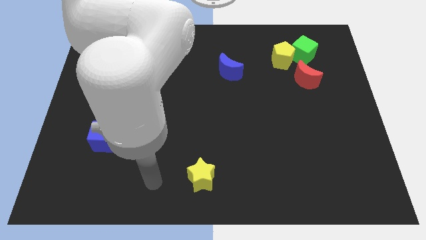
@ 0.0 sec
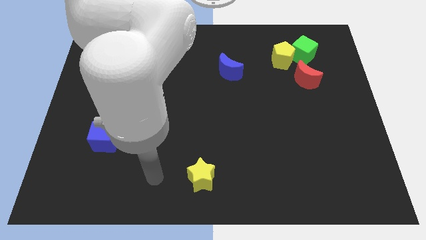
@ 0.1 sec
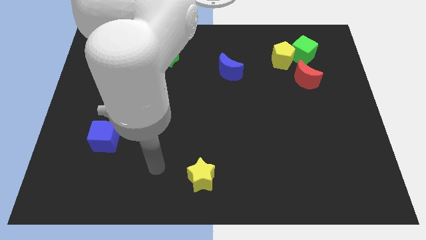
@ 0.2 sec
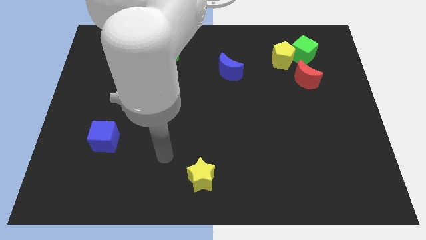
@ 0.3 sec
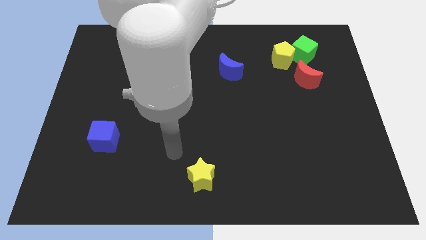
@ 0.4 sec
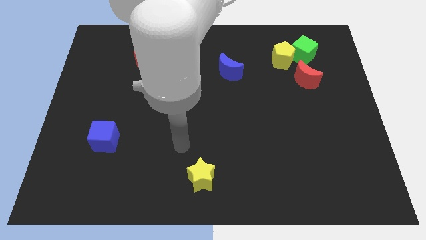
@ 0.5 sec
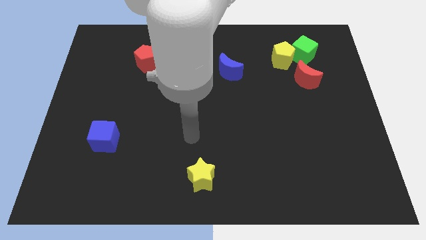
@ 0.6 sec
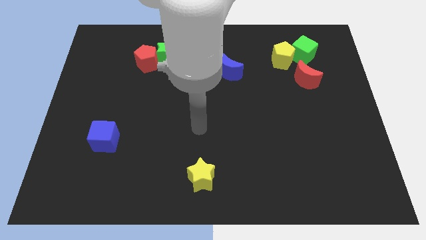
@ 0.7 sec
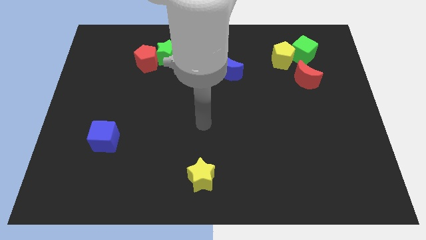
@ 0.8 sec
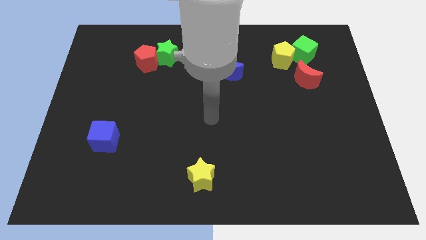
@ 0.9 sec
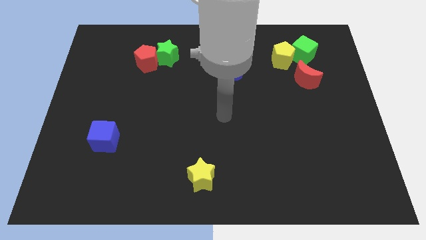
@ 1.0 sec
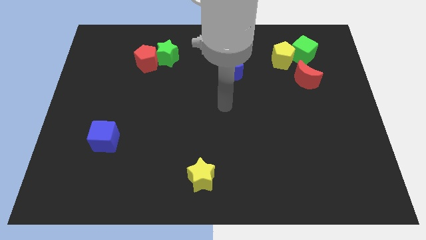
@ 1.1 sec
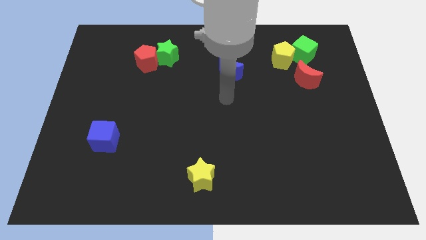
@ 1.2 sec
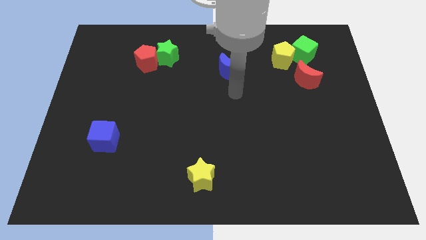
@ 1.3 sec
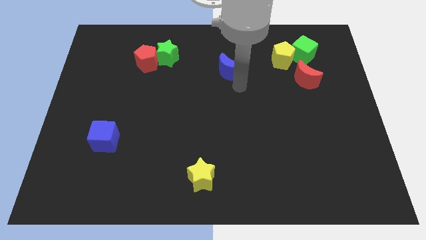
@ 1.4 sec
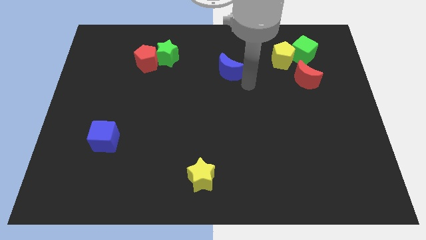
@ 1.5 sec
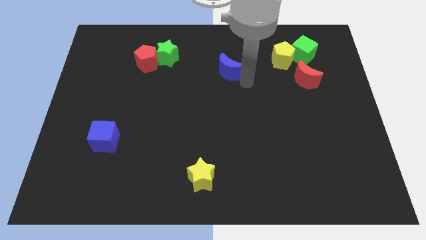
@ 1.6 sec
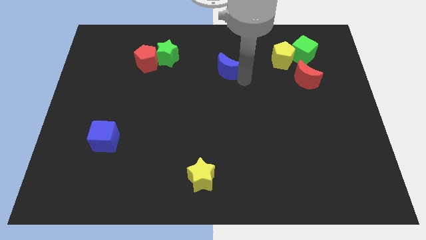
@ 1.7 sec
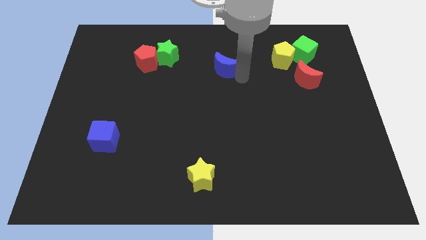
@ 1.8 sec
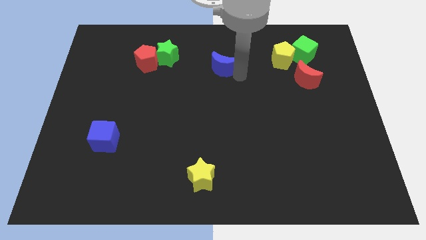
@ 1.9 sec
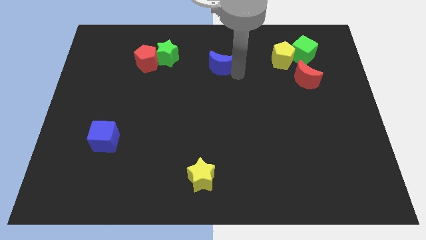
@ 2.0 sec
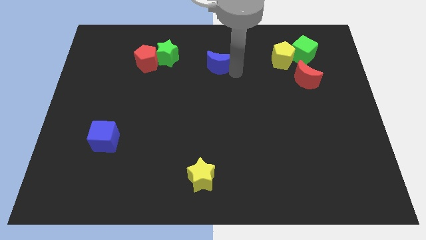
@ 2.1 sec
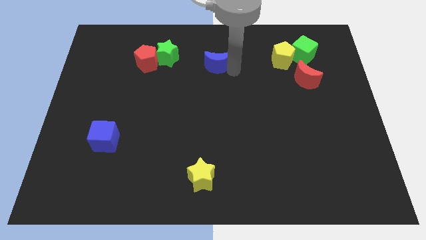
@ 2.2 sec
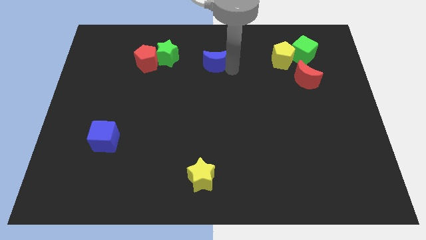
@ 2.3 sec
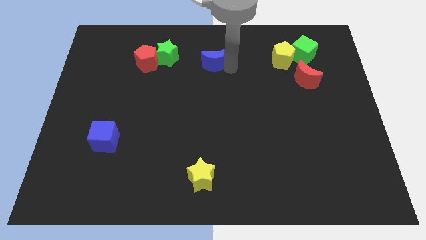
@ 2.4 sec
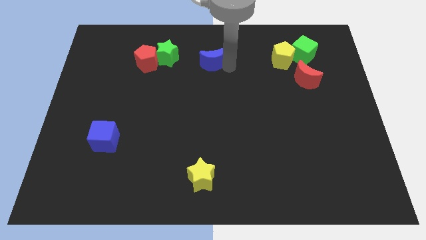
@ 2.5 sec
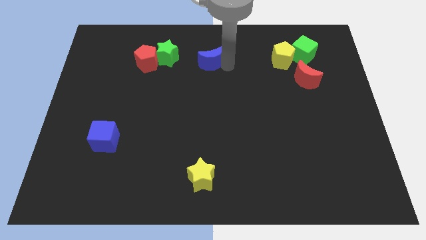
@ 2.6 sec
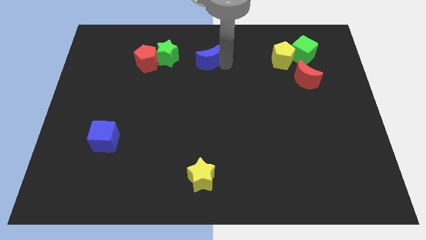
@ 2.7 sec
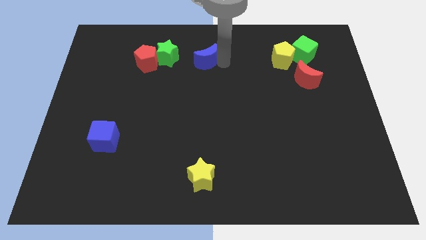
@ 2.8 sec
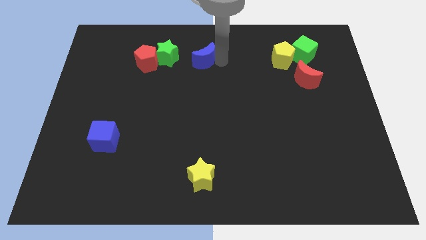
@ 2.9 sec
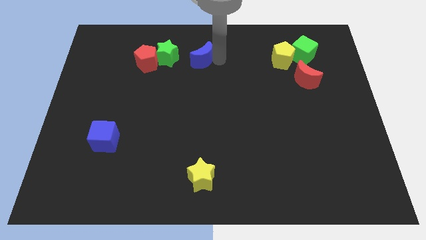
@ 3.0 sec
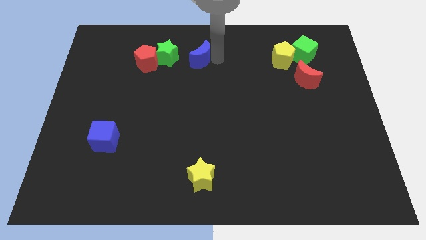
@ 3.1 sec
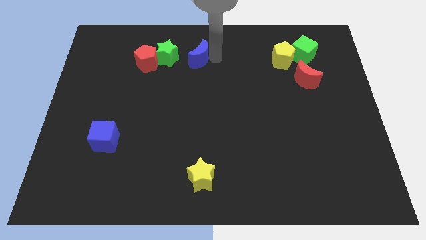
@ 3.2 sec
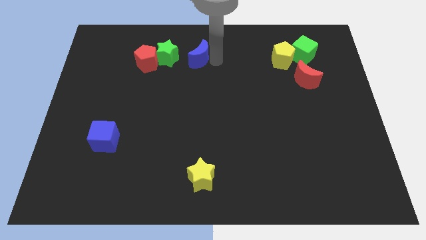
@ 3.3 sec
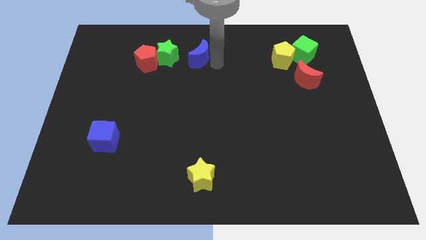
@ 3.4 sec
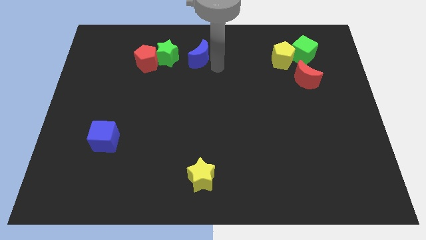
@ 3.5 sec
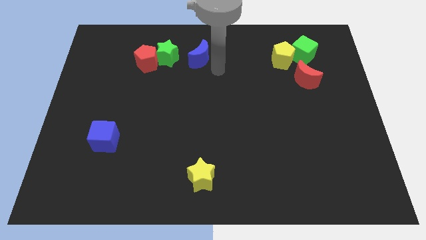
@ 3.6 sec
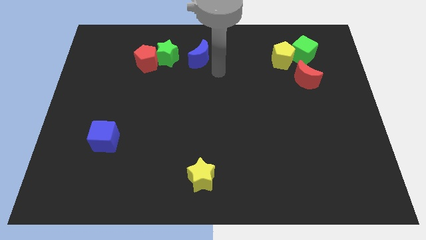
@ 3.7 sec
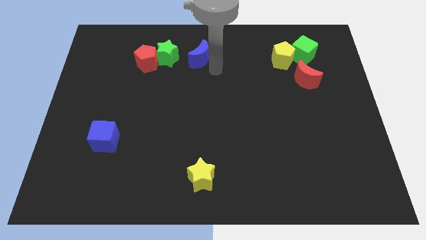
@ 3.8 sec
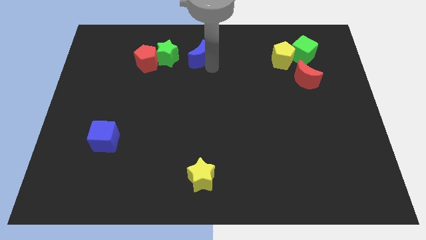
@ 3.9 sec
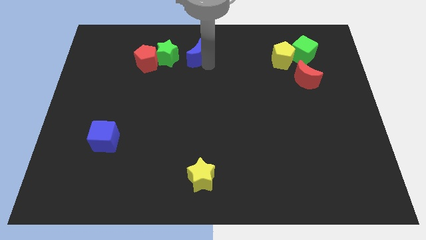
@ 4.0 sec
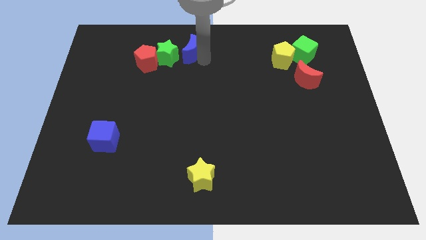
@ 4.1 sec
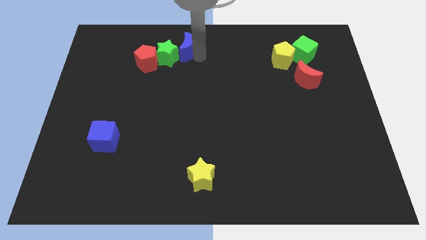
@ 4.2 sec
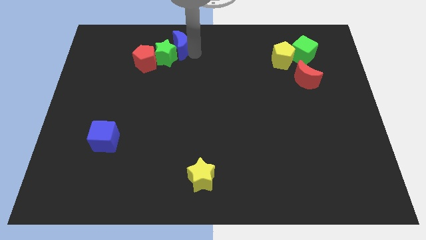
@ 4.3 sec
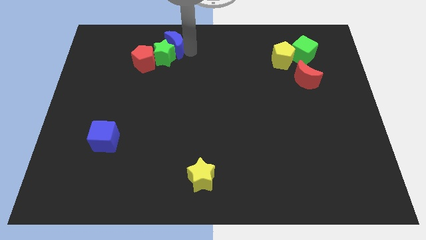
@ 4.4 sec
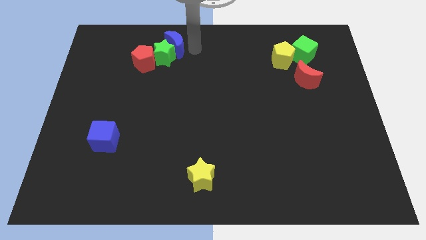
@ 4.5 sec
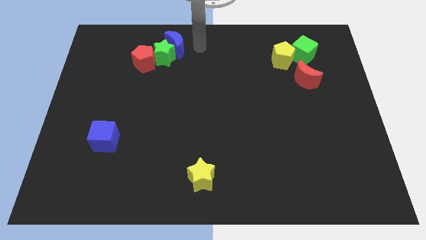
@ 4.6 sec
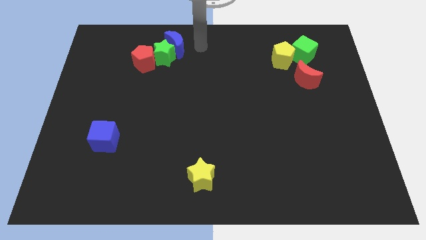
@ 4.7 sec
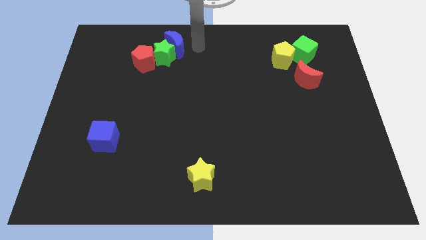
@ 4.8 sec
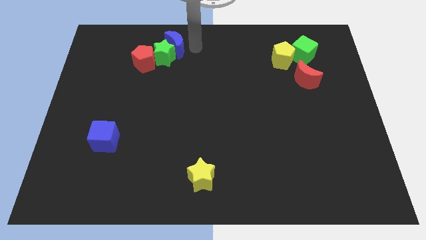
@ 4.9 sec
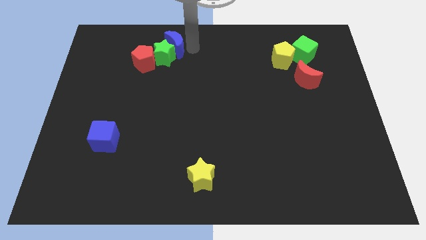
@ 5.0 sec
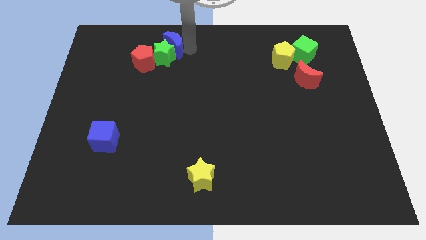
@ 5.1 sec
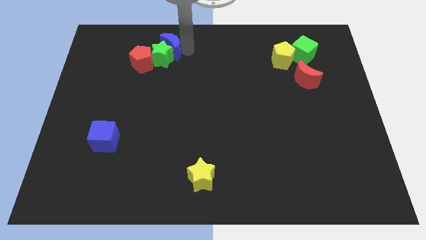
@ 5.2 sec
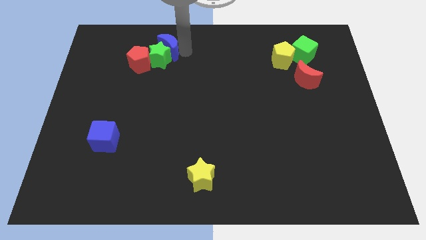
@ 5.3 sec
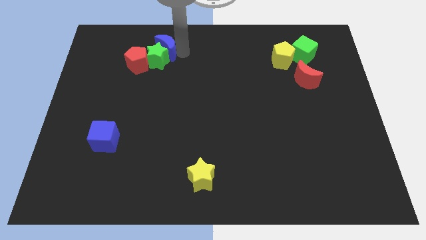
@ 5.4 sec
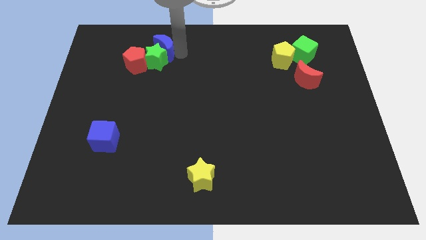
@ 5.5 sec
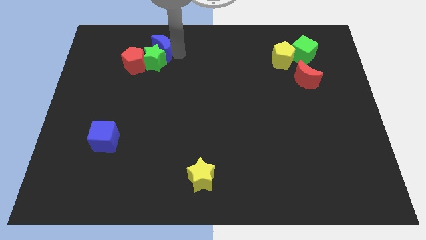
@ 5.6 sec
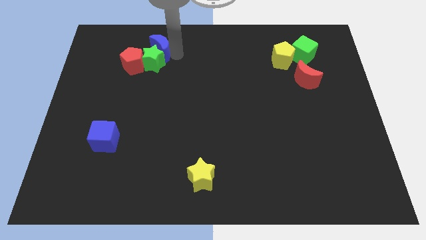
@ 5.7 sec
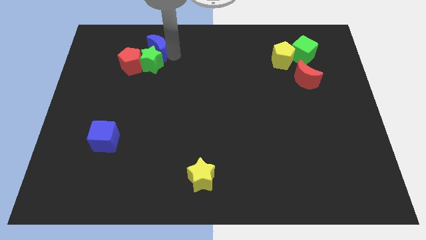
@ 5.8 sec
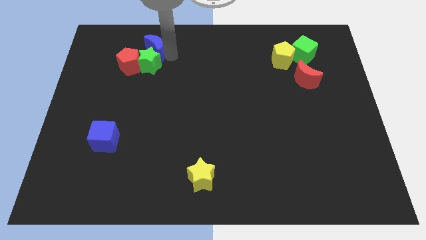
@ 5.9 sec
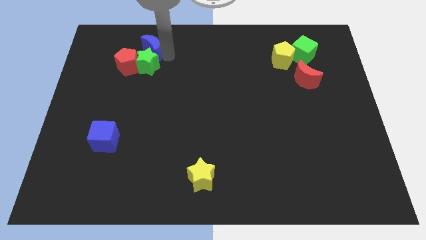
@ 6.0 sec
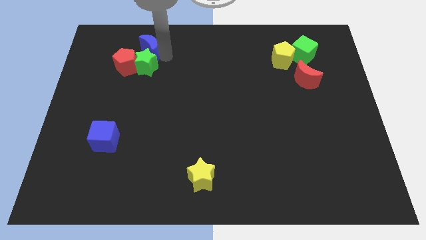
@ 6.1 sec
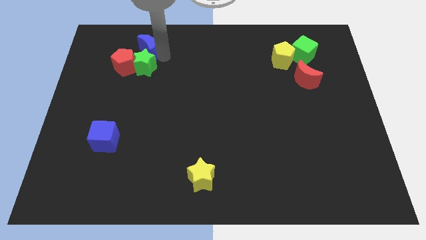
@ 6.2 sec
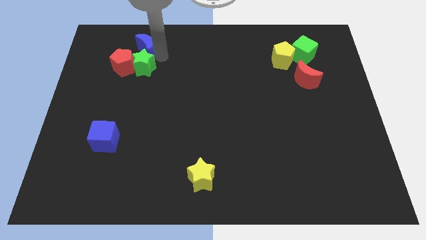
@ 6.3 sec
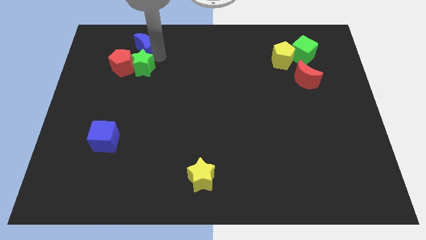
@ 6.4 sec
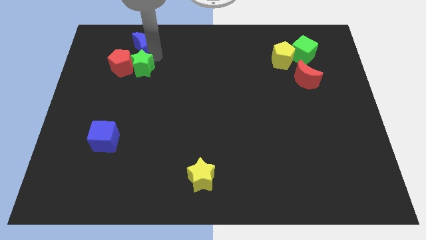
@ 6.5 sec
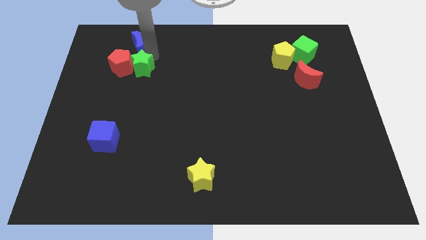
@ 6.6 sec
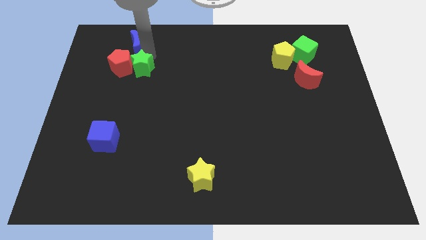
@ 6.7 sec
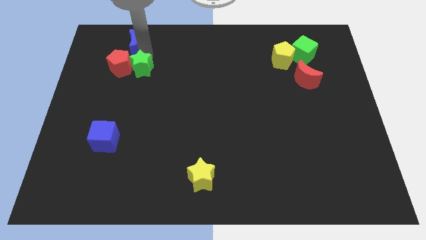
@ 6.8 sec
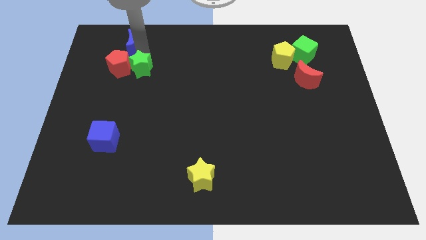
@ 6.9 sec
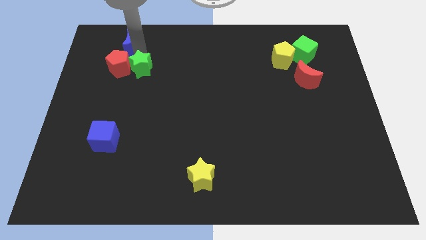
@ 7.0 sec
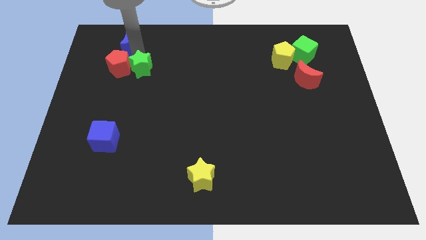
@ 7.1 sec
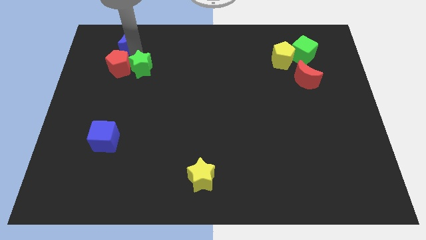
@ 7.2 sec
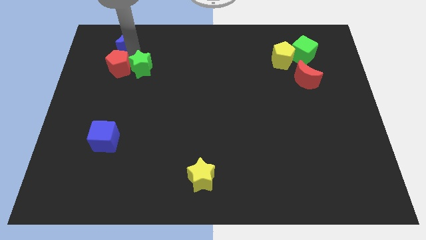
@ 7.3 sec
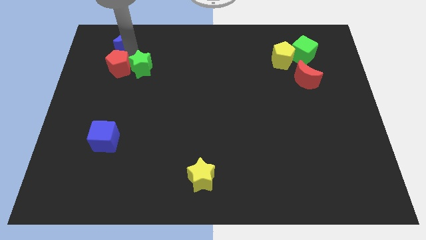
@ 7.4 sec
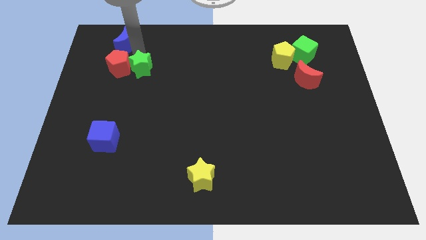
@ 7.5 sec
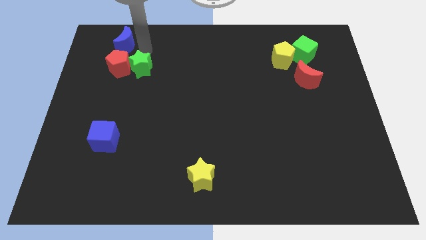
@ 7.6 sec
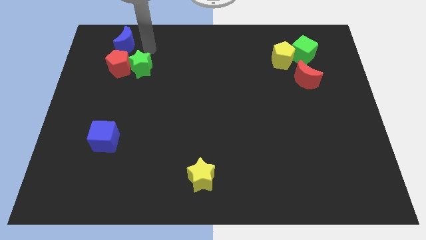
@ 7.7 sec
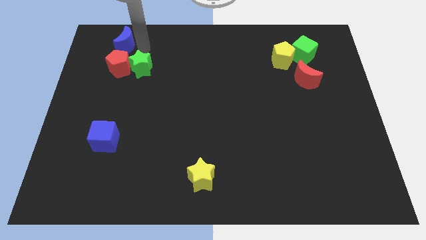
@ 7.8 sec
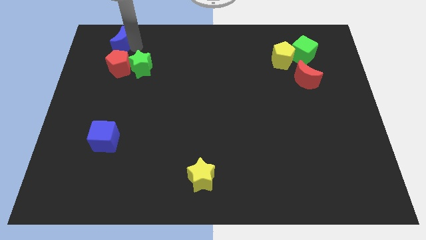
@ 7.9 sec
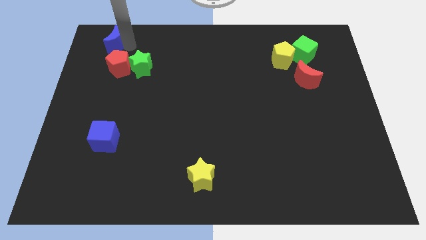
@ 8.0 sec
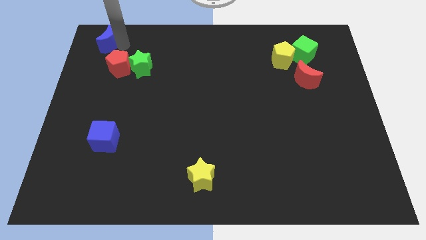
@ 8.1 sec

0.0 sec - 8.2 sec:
slide the blue moon to the top left corner
